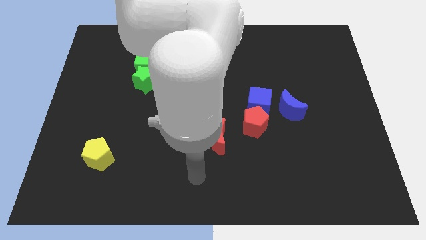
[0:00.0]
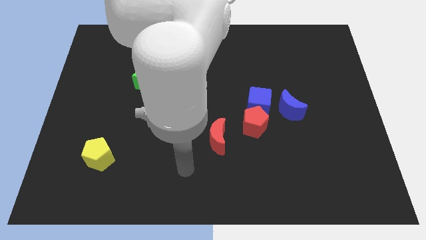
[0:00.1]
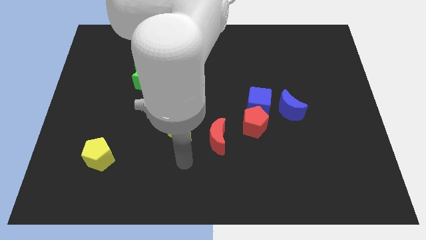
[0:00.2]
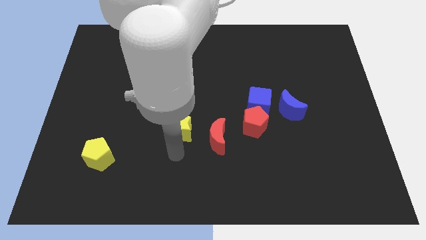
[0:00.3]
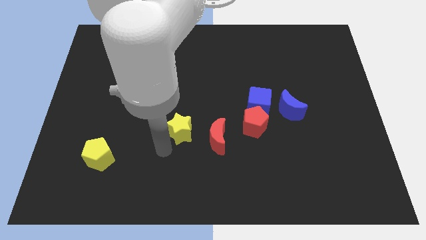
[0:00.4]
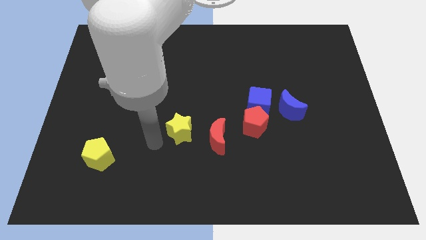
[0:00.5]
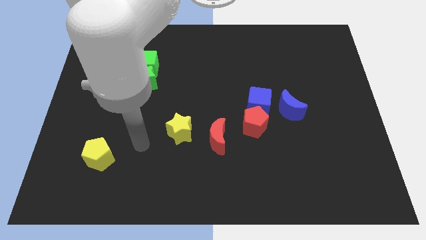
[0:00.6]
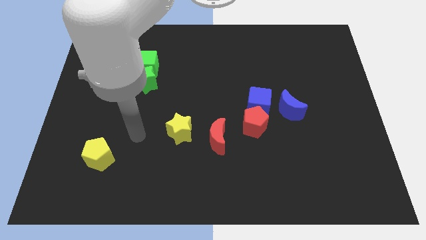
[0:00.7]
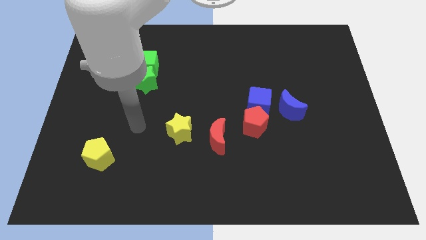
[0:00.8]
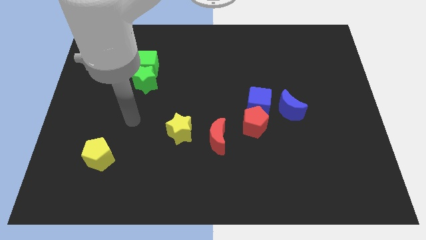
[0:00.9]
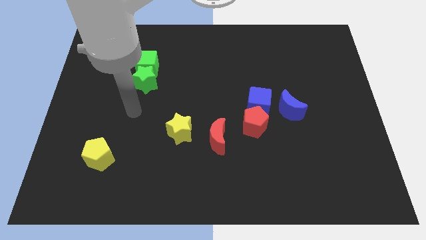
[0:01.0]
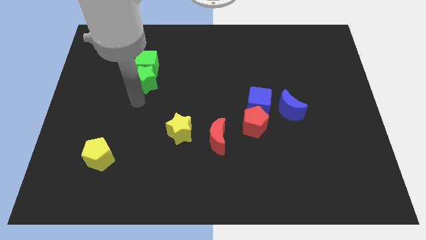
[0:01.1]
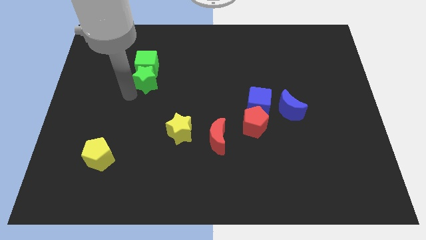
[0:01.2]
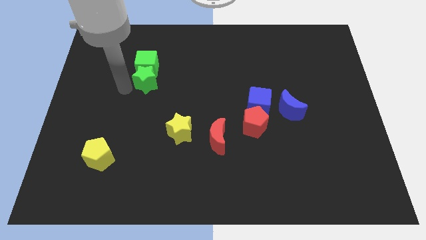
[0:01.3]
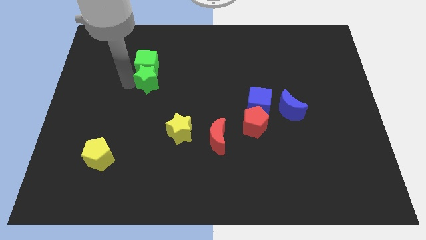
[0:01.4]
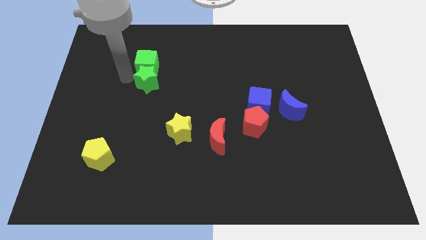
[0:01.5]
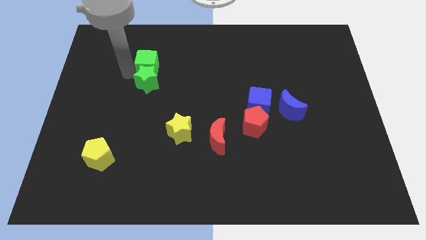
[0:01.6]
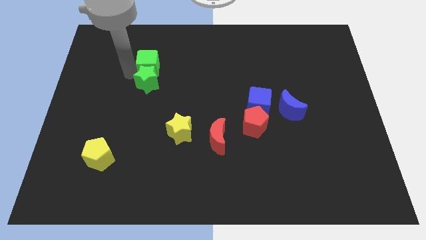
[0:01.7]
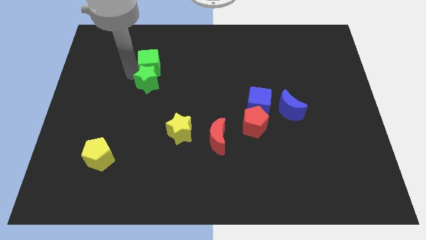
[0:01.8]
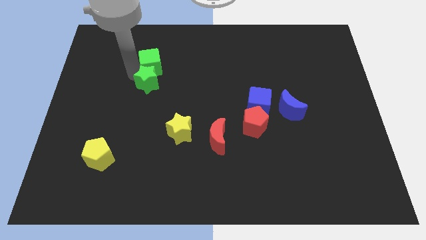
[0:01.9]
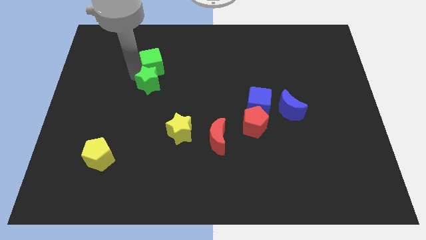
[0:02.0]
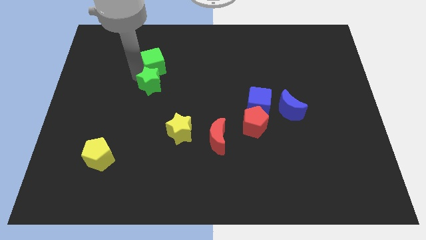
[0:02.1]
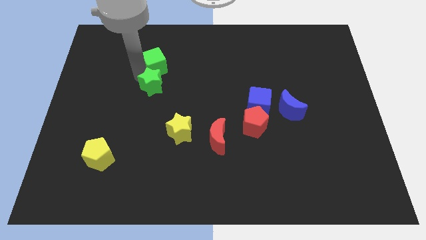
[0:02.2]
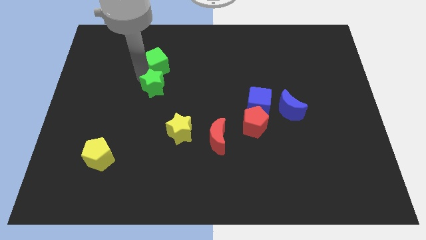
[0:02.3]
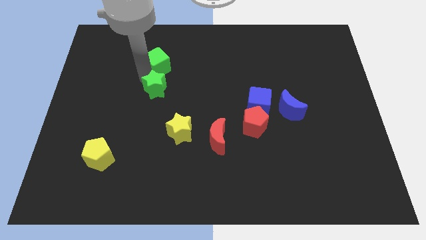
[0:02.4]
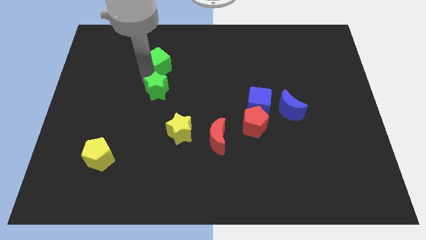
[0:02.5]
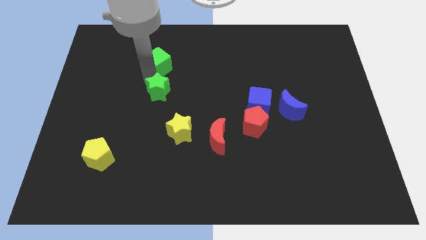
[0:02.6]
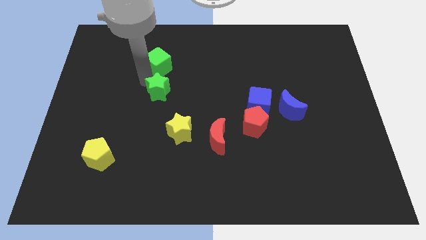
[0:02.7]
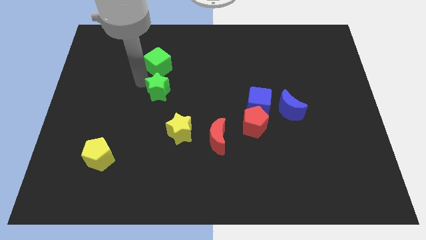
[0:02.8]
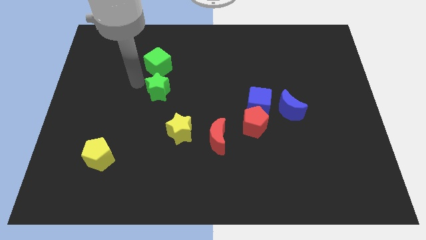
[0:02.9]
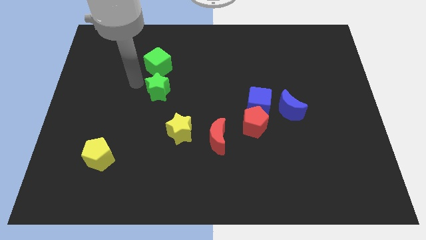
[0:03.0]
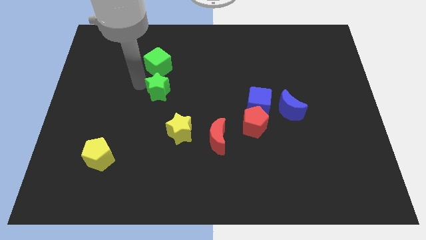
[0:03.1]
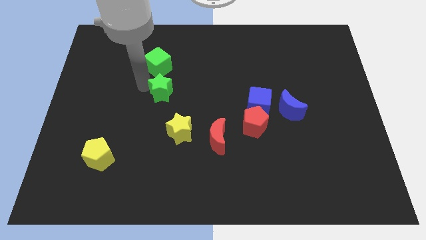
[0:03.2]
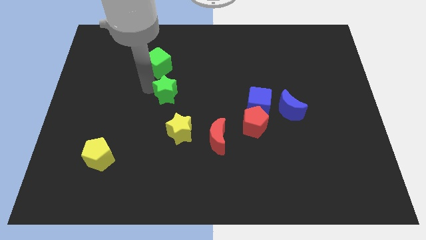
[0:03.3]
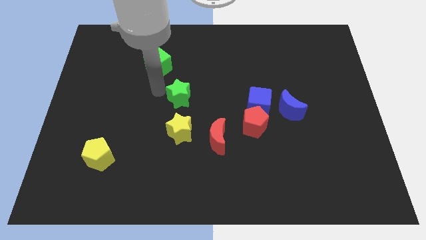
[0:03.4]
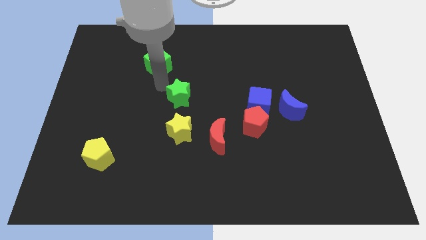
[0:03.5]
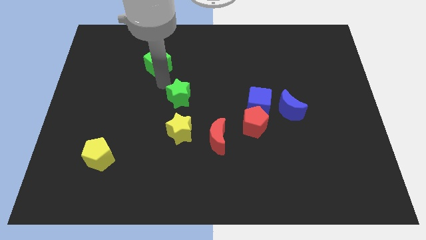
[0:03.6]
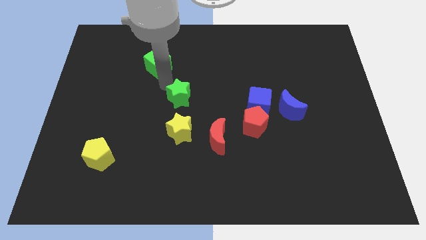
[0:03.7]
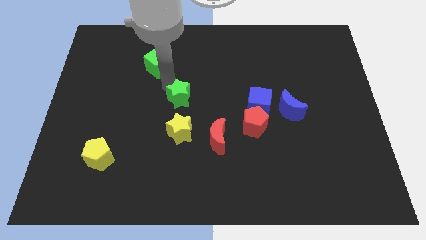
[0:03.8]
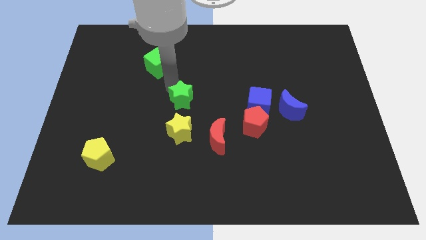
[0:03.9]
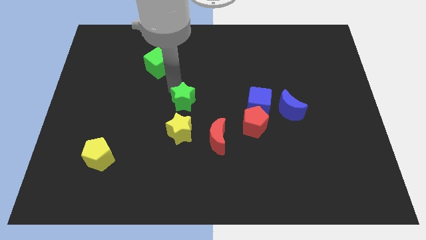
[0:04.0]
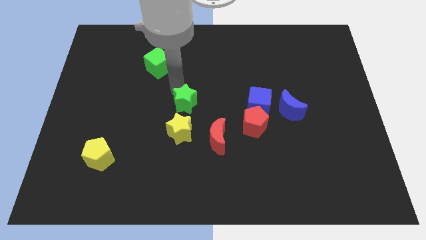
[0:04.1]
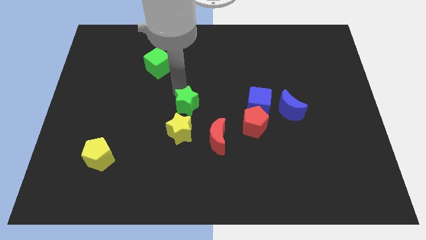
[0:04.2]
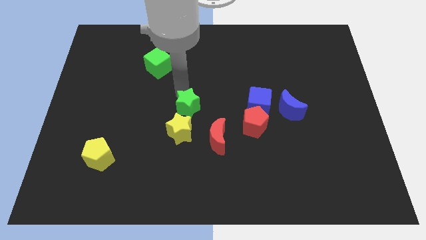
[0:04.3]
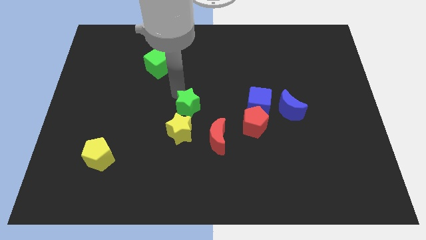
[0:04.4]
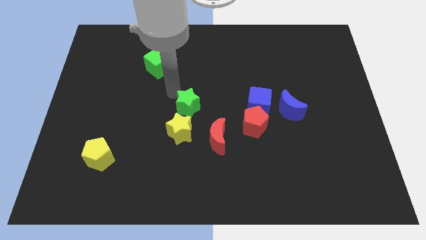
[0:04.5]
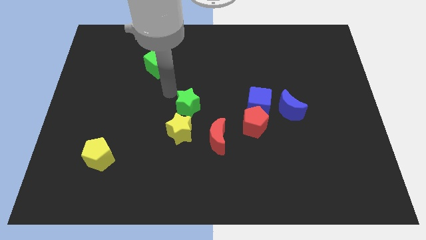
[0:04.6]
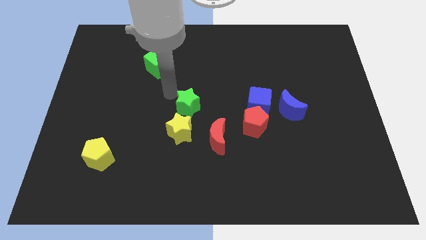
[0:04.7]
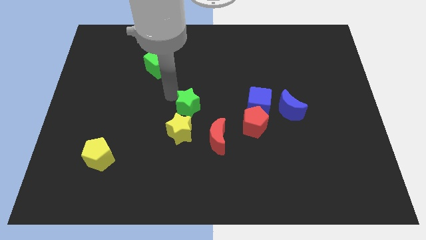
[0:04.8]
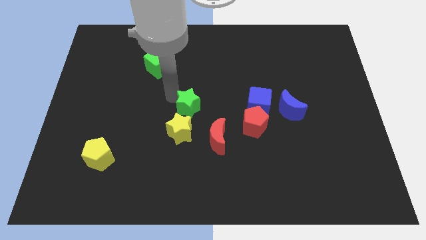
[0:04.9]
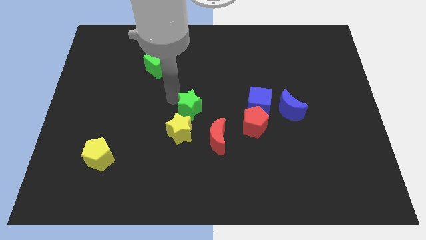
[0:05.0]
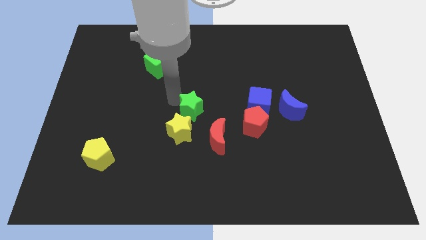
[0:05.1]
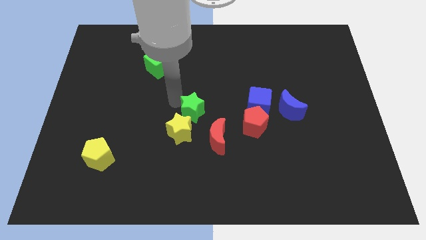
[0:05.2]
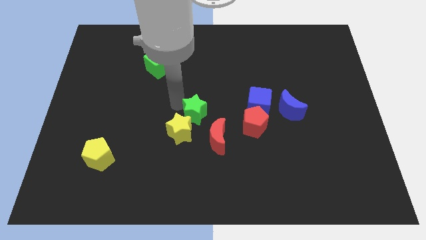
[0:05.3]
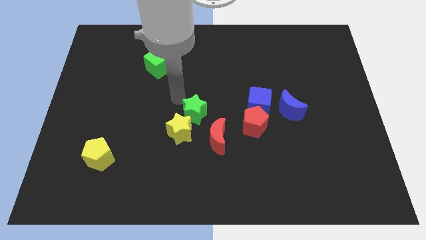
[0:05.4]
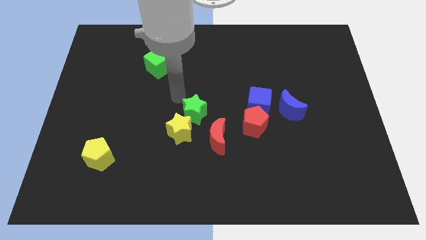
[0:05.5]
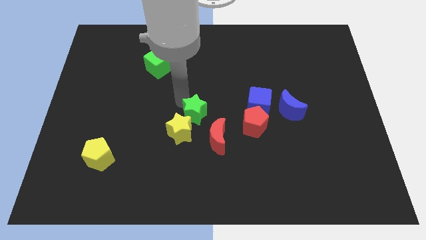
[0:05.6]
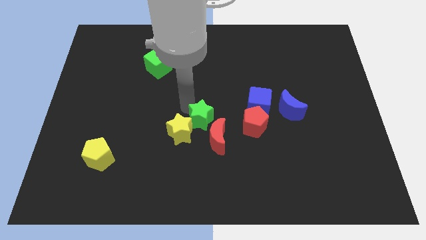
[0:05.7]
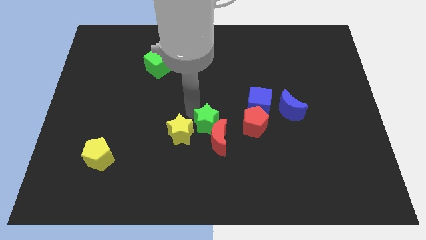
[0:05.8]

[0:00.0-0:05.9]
put the green star towards the red moon
